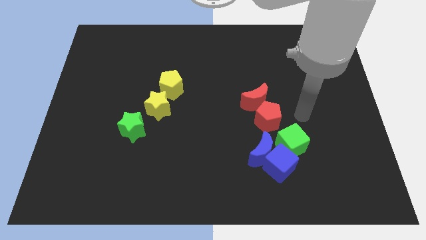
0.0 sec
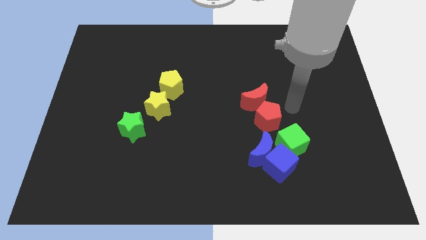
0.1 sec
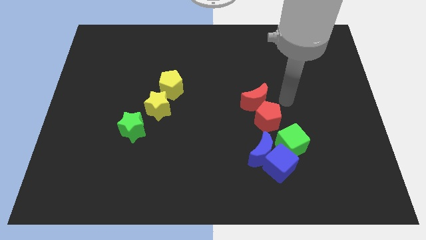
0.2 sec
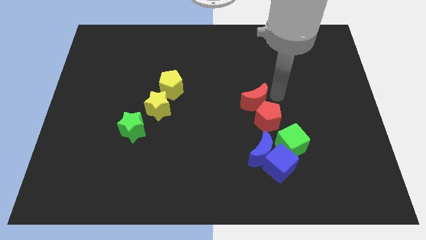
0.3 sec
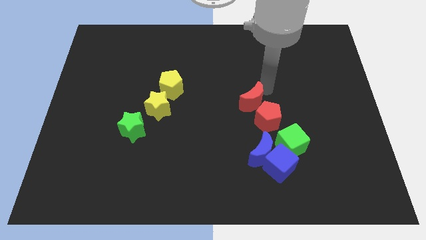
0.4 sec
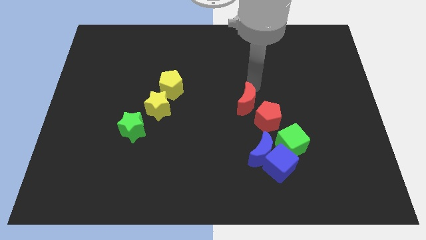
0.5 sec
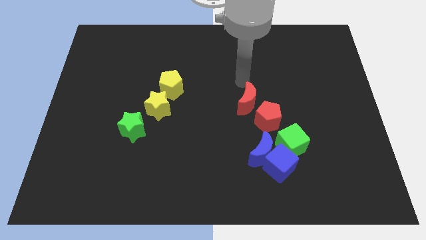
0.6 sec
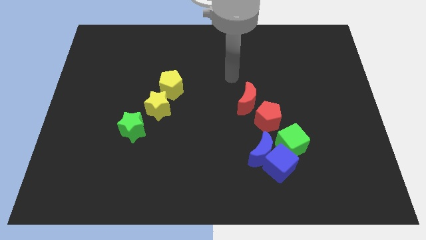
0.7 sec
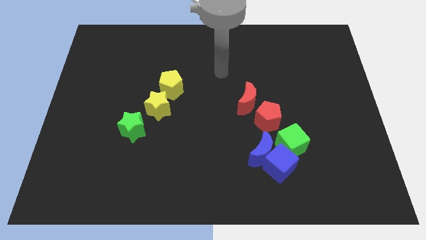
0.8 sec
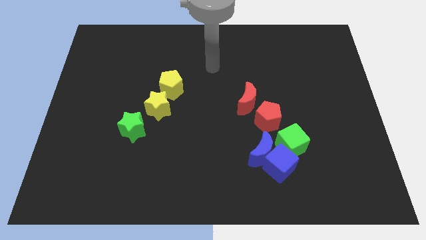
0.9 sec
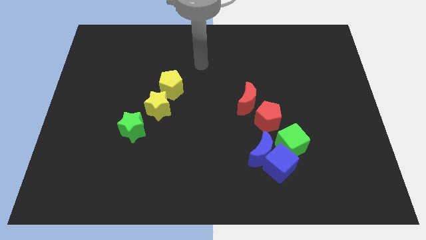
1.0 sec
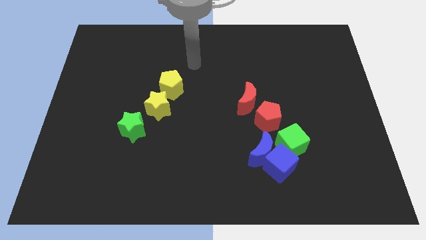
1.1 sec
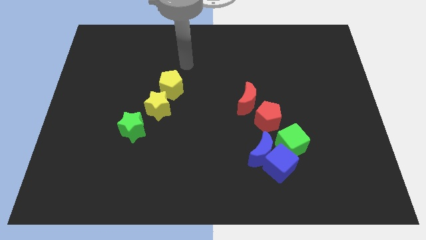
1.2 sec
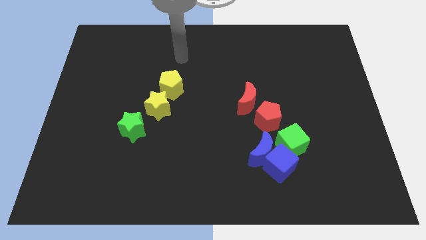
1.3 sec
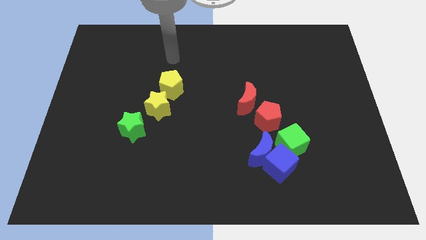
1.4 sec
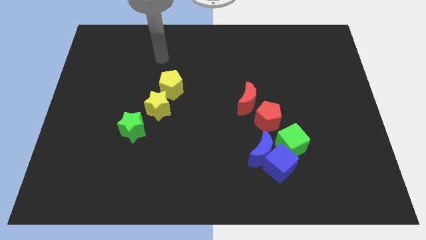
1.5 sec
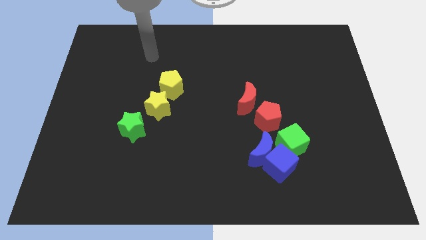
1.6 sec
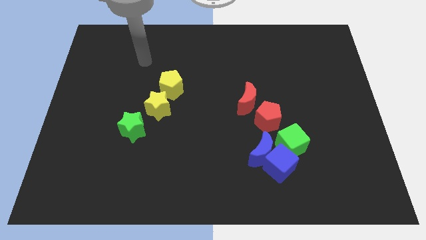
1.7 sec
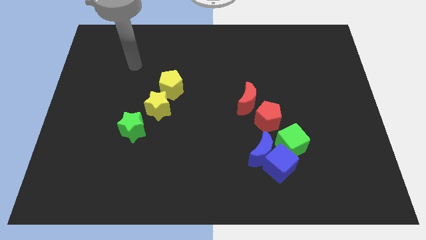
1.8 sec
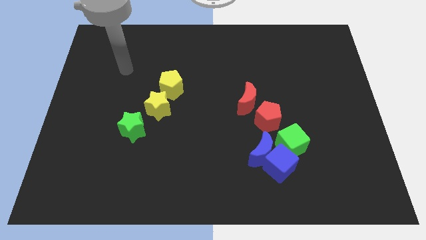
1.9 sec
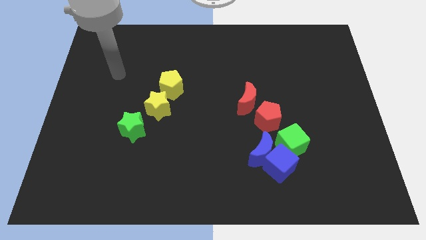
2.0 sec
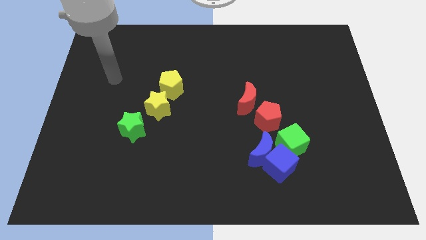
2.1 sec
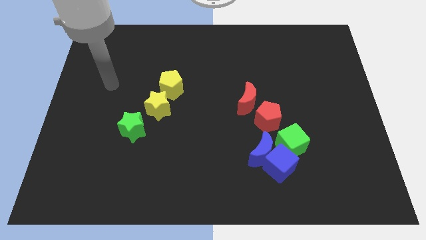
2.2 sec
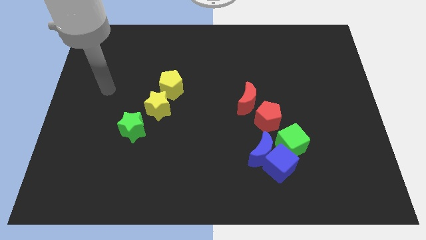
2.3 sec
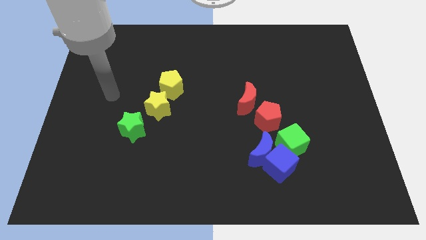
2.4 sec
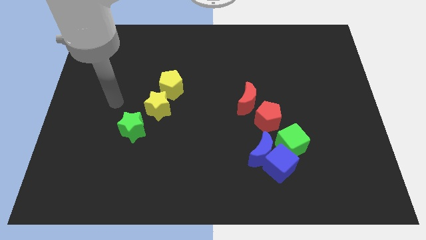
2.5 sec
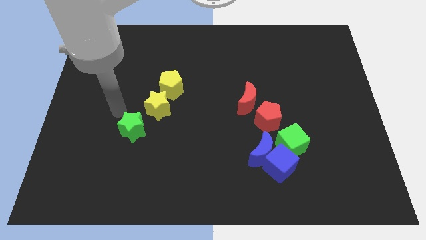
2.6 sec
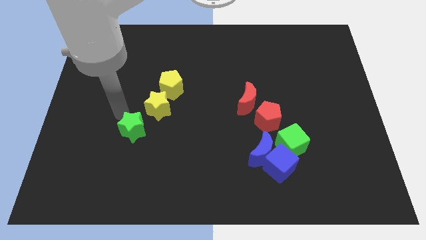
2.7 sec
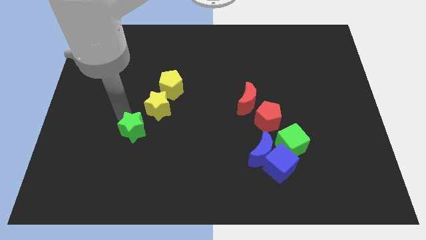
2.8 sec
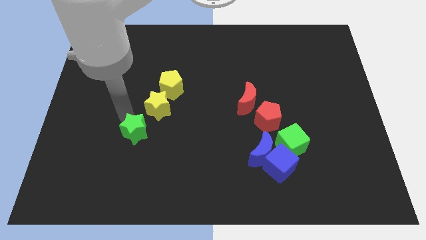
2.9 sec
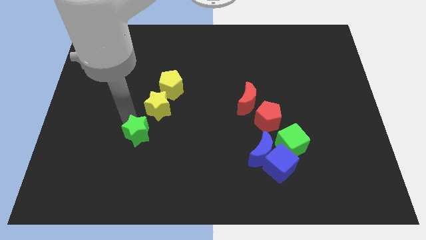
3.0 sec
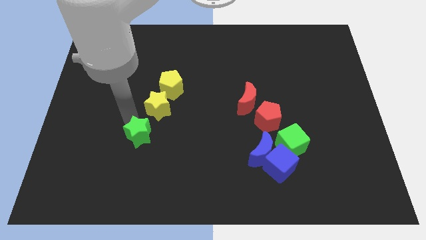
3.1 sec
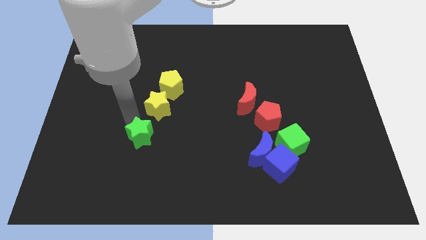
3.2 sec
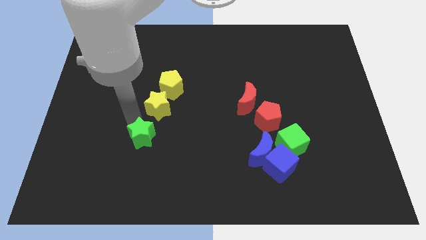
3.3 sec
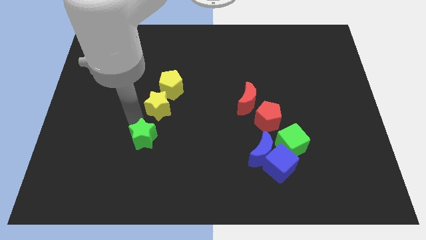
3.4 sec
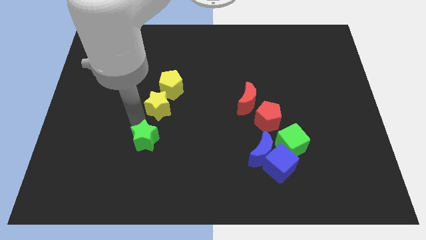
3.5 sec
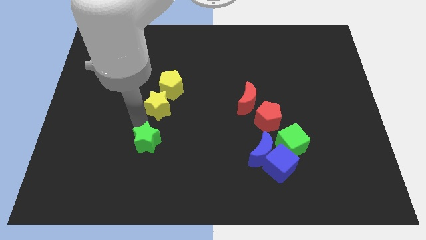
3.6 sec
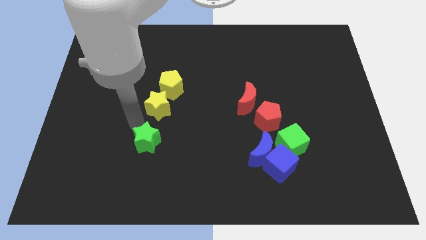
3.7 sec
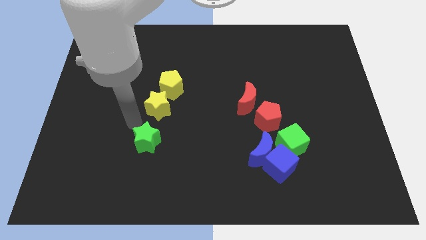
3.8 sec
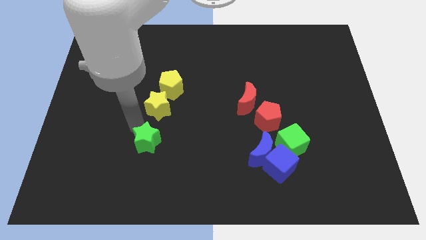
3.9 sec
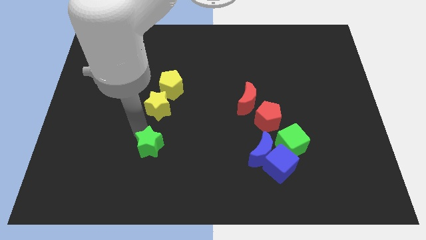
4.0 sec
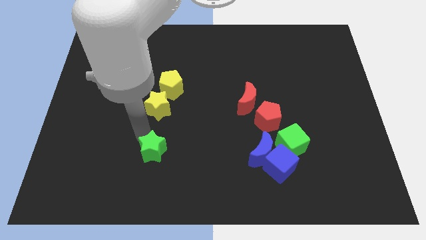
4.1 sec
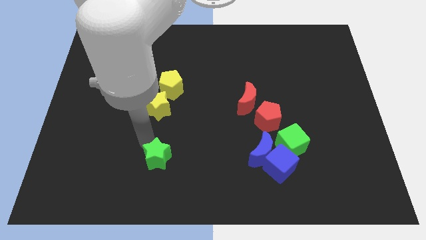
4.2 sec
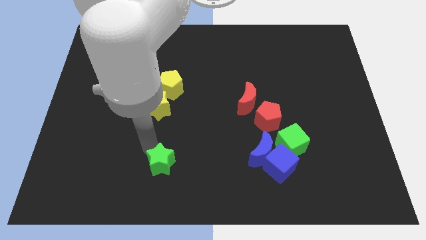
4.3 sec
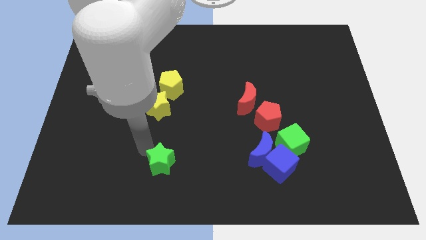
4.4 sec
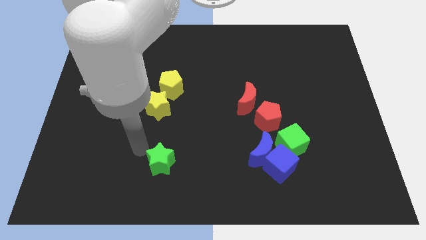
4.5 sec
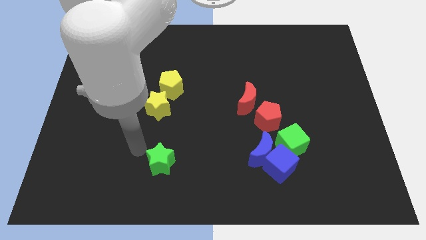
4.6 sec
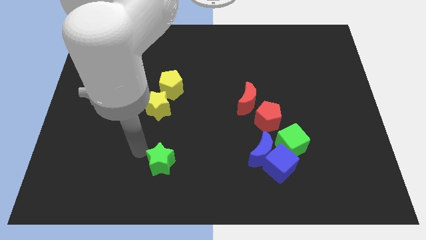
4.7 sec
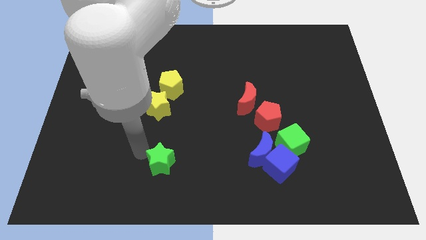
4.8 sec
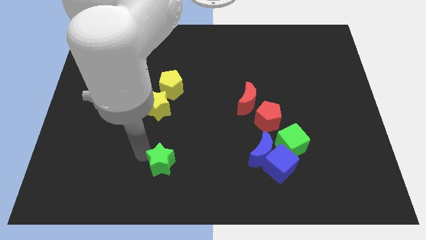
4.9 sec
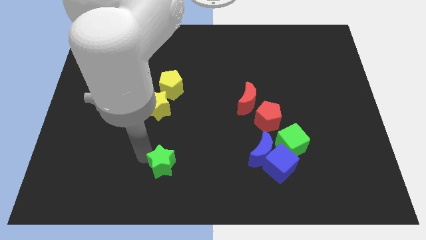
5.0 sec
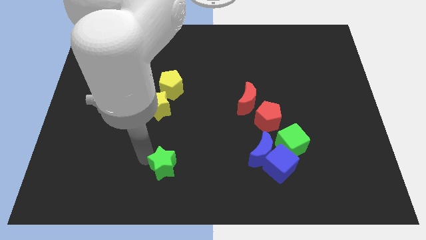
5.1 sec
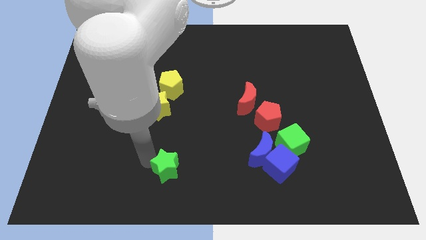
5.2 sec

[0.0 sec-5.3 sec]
push the green star to the bottom

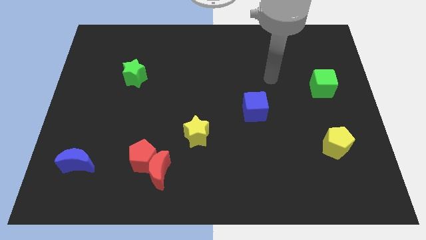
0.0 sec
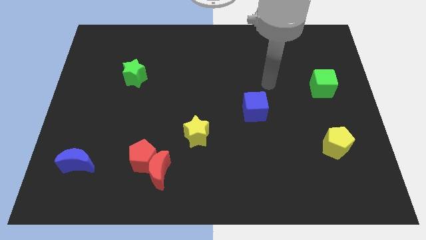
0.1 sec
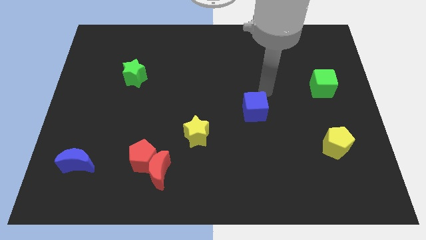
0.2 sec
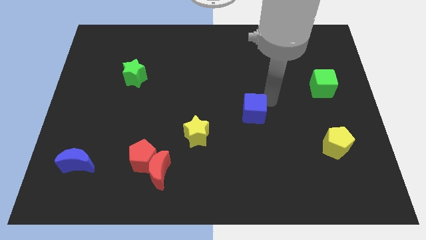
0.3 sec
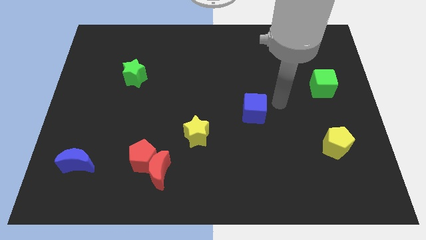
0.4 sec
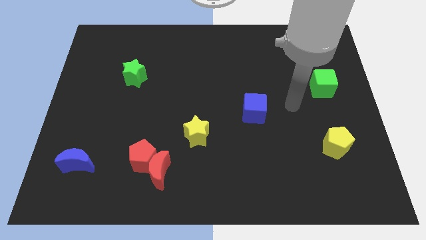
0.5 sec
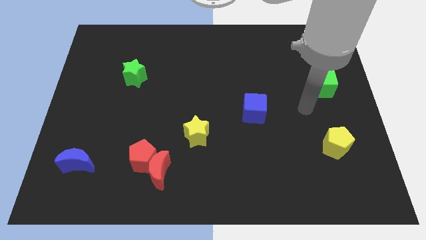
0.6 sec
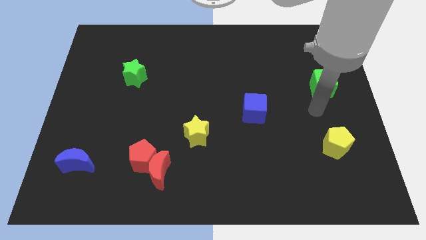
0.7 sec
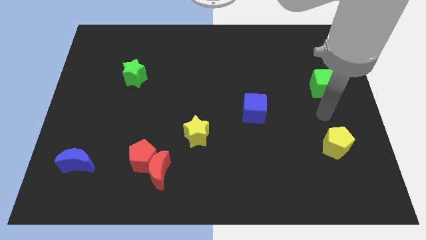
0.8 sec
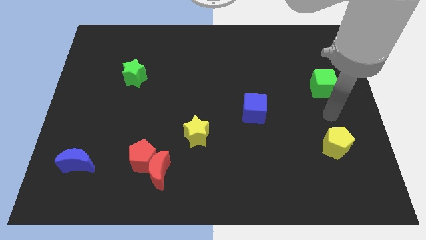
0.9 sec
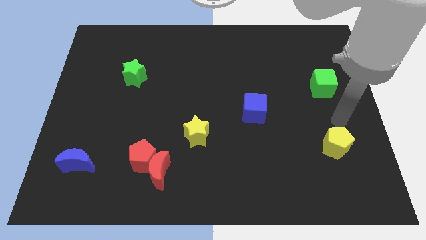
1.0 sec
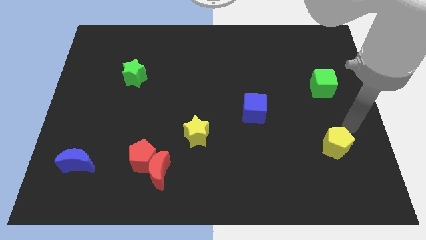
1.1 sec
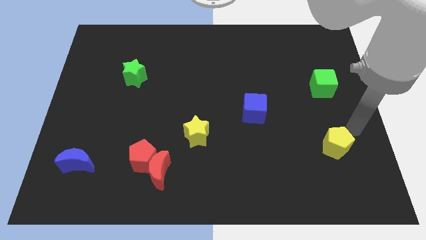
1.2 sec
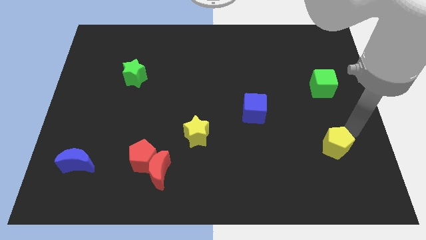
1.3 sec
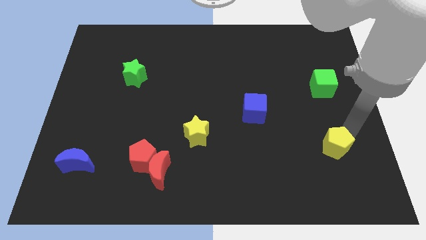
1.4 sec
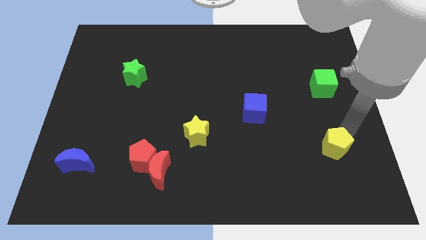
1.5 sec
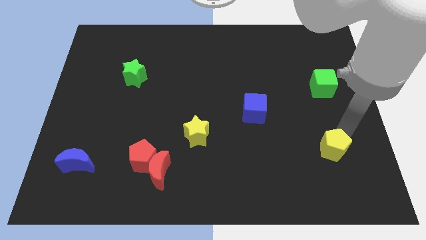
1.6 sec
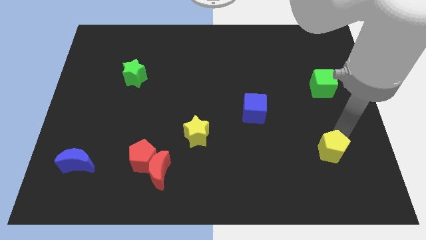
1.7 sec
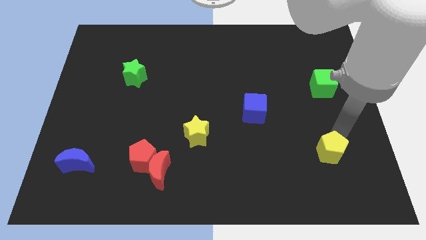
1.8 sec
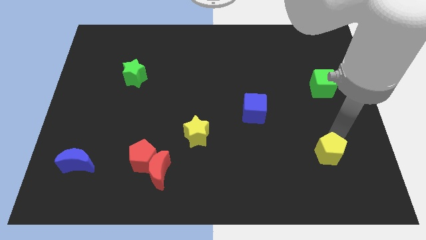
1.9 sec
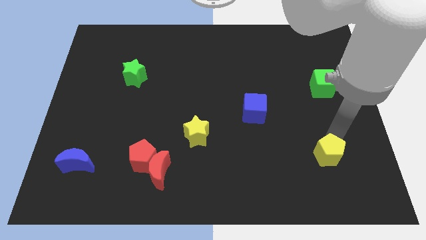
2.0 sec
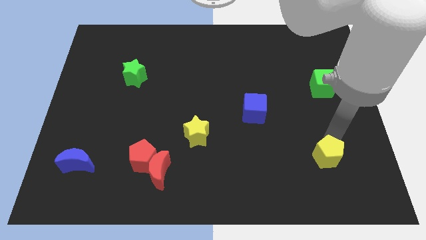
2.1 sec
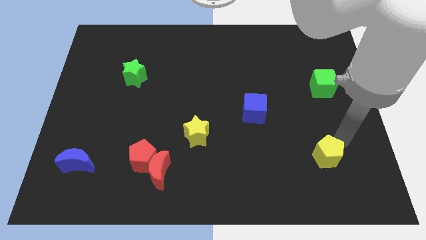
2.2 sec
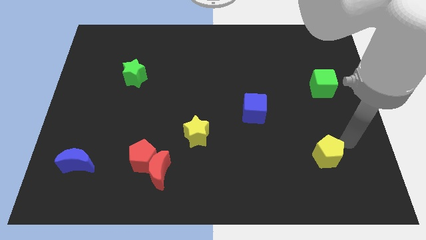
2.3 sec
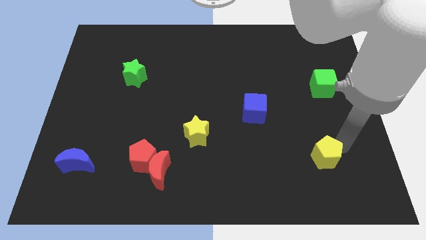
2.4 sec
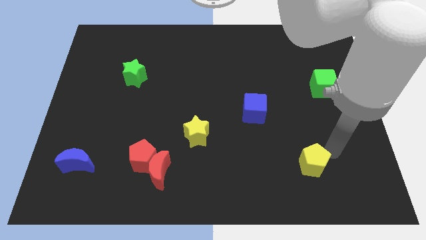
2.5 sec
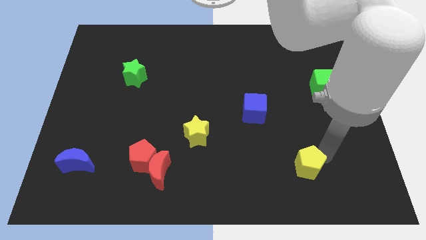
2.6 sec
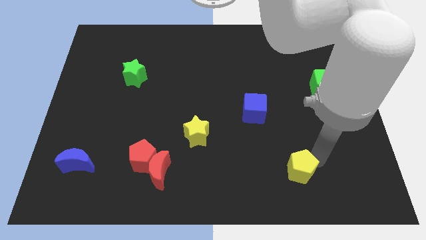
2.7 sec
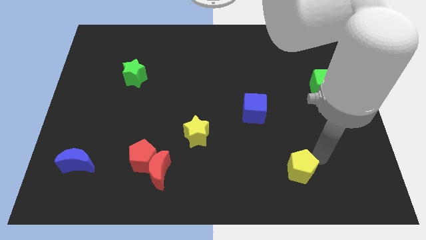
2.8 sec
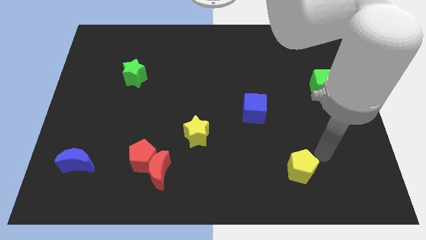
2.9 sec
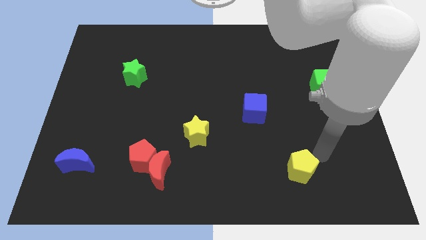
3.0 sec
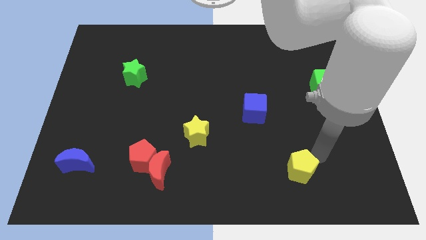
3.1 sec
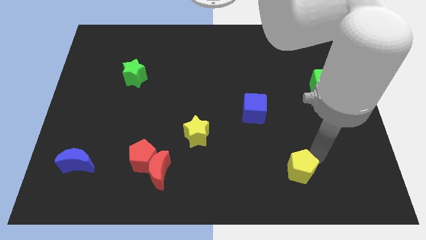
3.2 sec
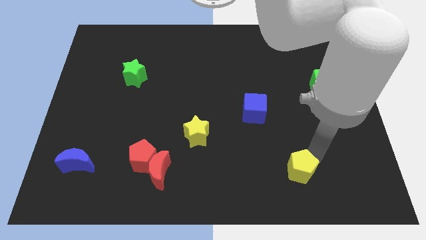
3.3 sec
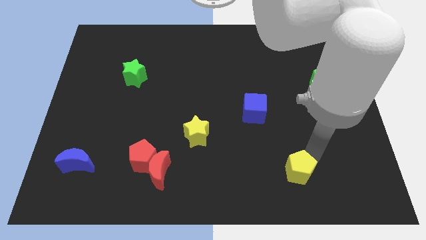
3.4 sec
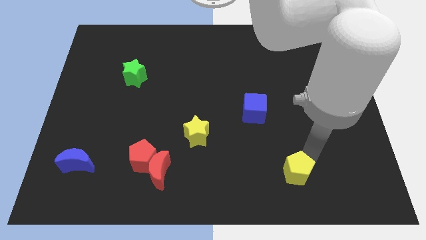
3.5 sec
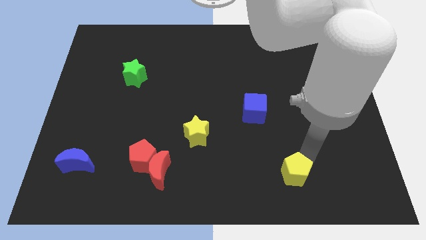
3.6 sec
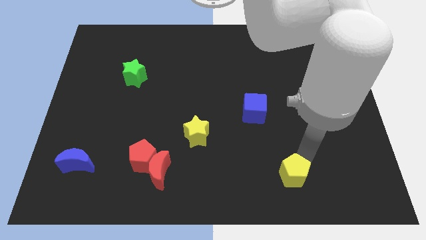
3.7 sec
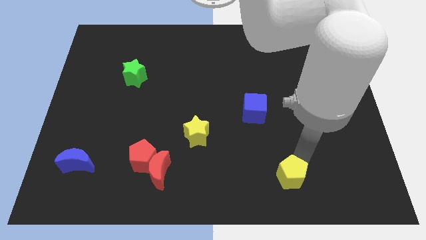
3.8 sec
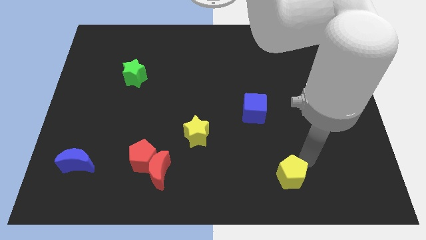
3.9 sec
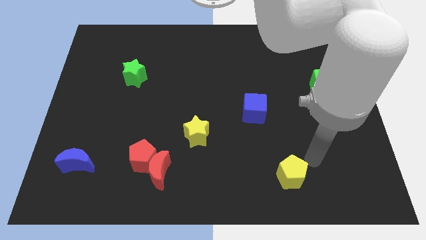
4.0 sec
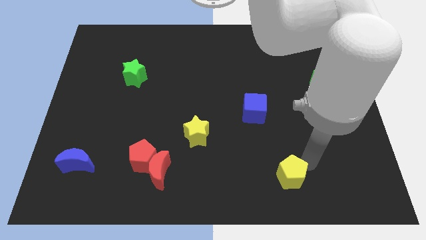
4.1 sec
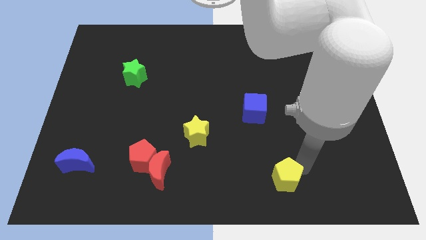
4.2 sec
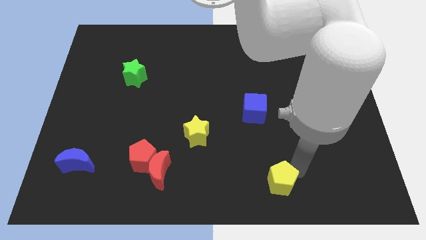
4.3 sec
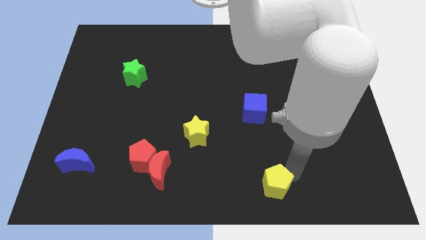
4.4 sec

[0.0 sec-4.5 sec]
put the yellow pentagon to the bottom
